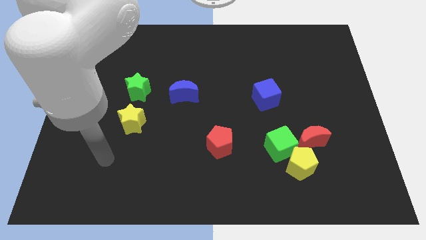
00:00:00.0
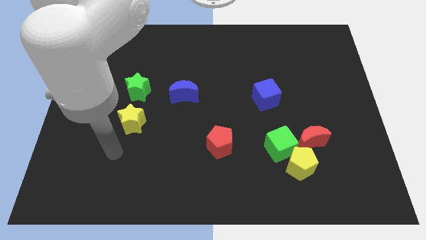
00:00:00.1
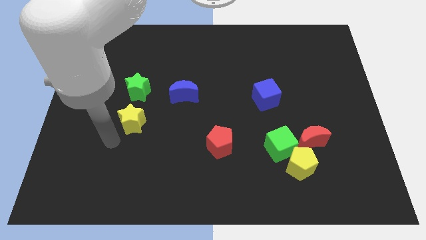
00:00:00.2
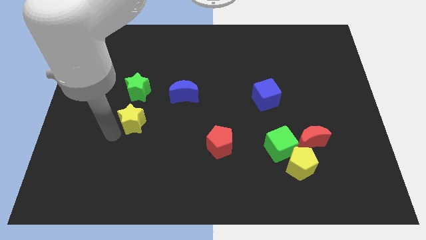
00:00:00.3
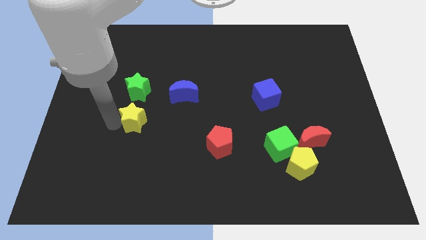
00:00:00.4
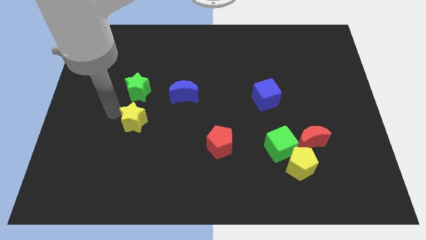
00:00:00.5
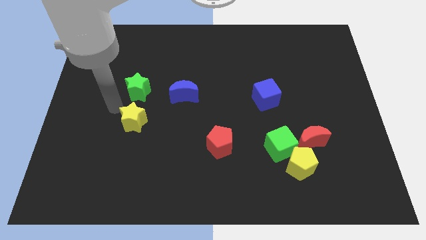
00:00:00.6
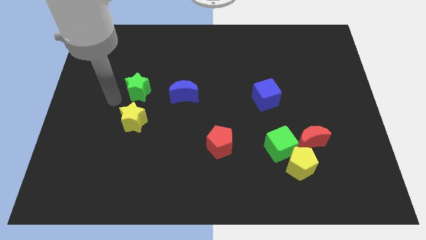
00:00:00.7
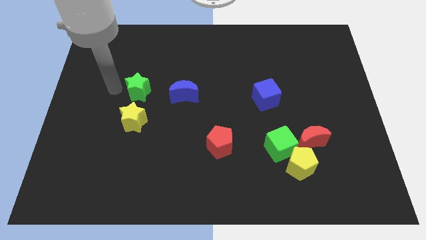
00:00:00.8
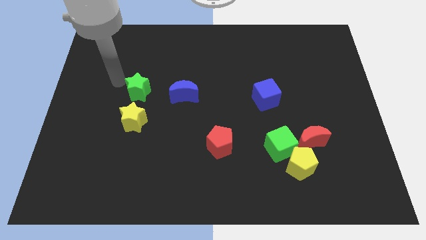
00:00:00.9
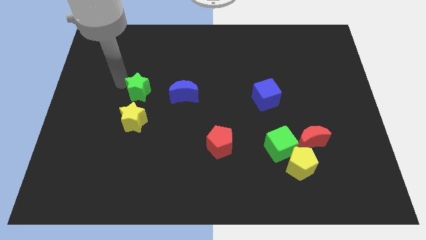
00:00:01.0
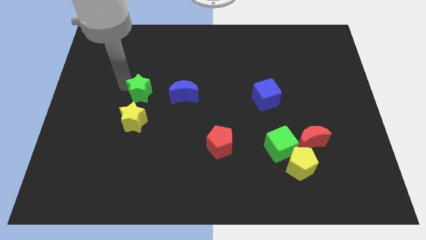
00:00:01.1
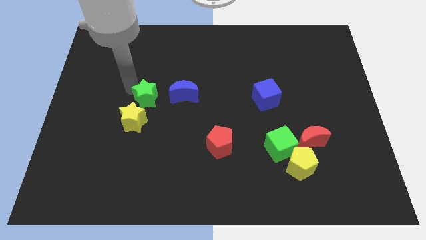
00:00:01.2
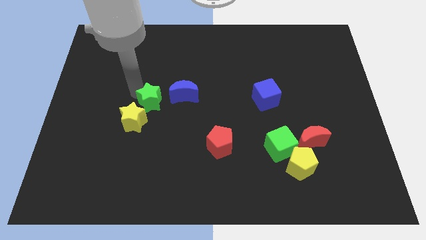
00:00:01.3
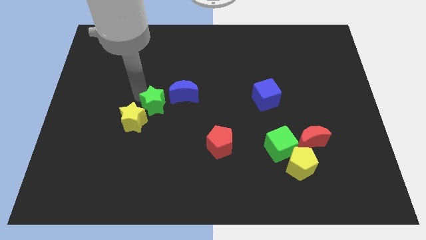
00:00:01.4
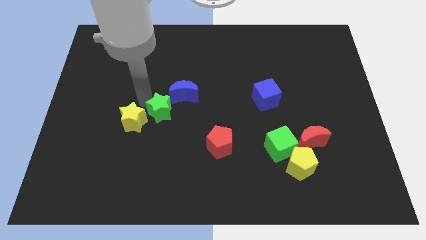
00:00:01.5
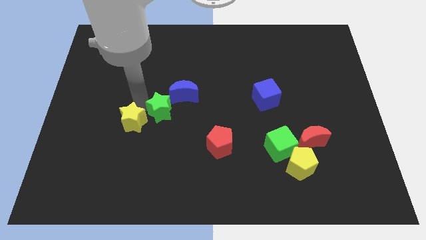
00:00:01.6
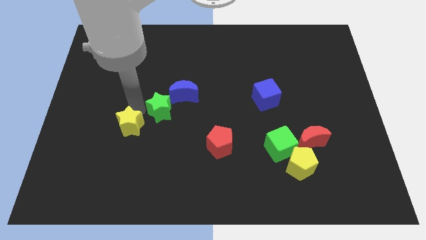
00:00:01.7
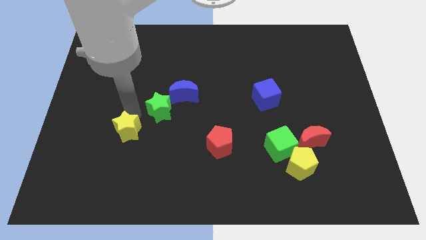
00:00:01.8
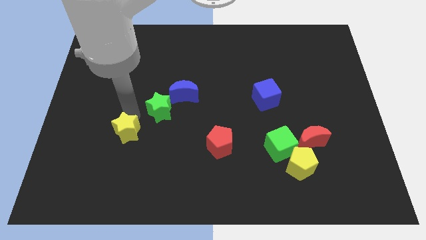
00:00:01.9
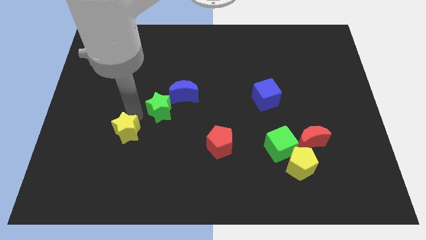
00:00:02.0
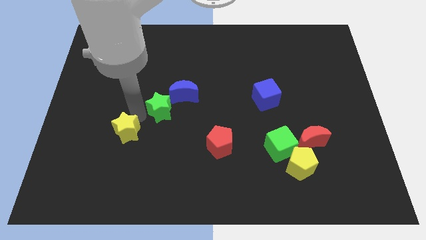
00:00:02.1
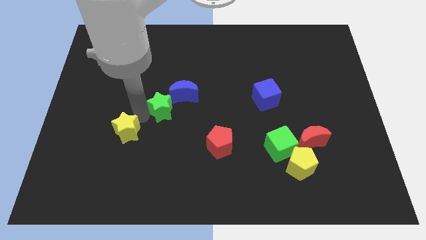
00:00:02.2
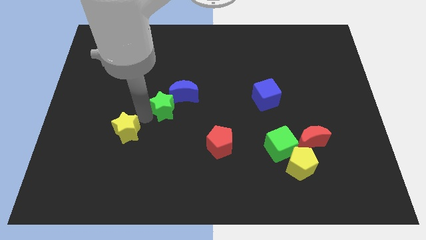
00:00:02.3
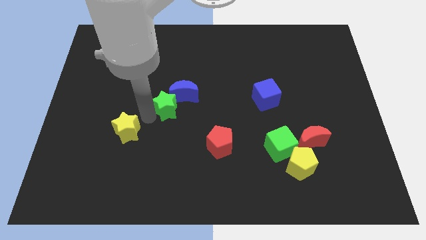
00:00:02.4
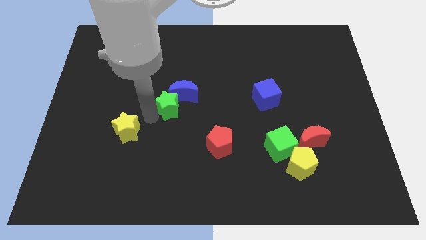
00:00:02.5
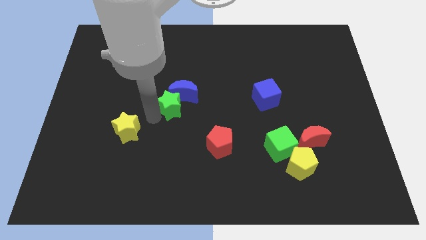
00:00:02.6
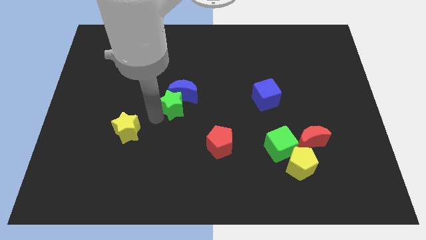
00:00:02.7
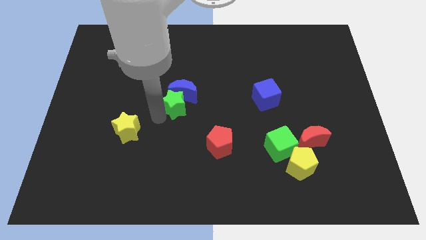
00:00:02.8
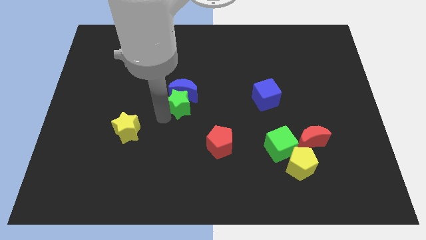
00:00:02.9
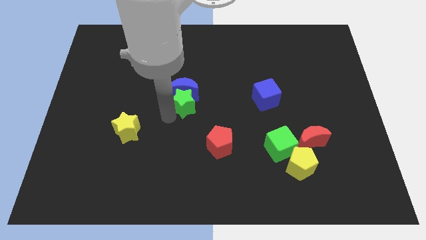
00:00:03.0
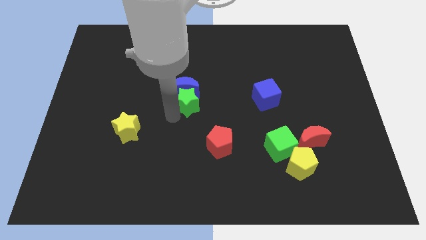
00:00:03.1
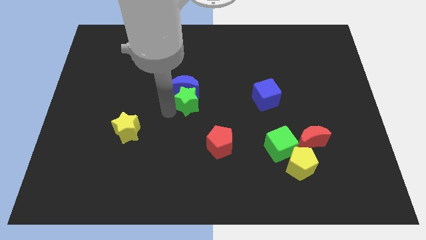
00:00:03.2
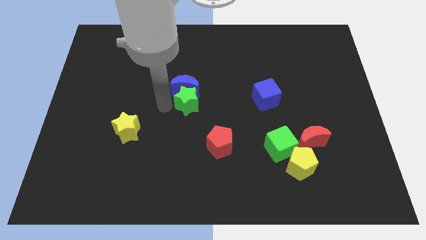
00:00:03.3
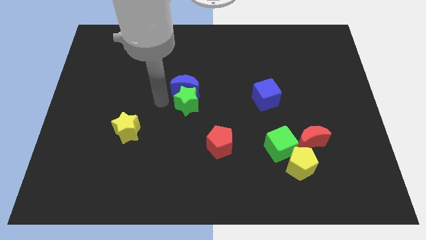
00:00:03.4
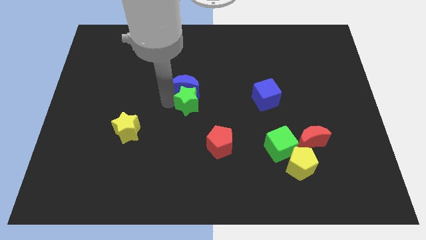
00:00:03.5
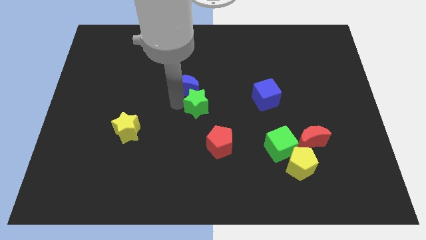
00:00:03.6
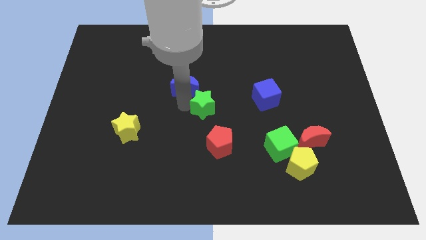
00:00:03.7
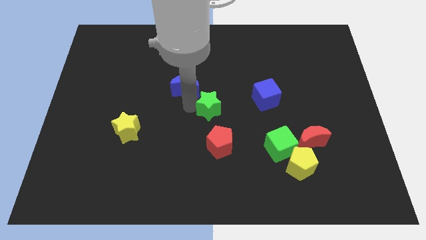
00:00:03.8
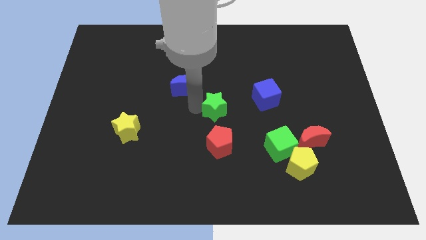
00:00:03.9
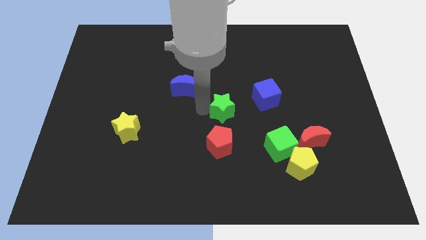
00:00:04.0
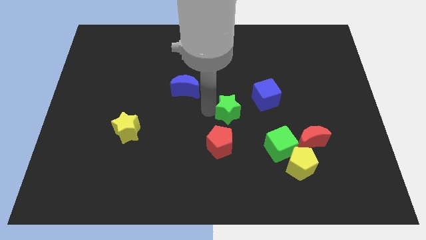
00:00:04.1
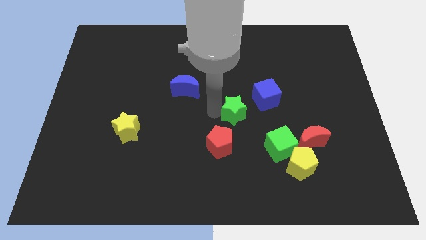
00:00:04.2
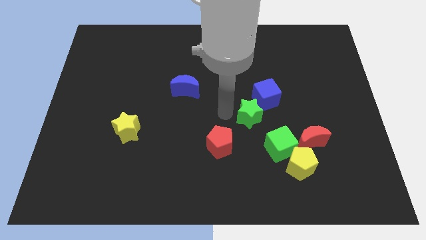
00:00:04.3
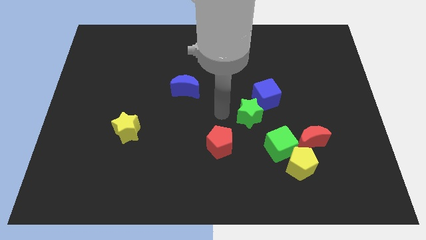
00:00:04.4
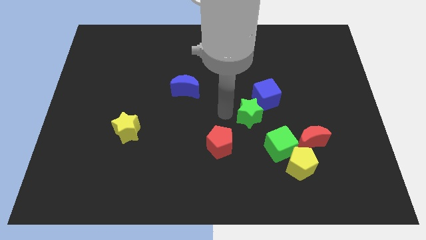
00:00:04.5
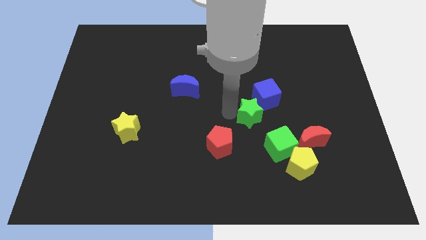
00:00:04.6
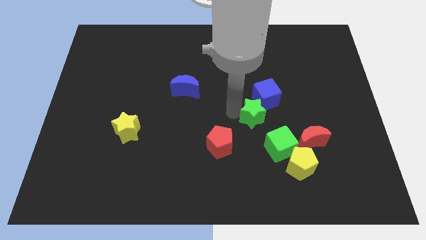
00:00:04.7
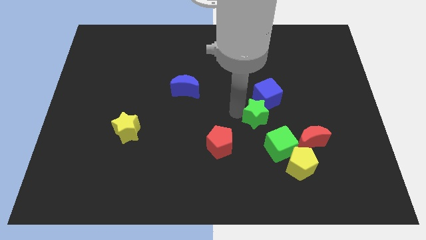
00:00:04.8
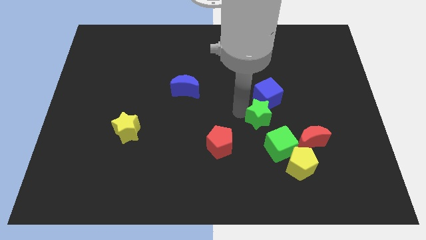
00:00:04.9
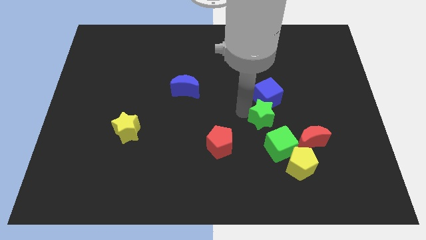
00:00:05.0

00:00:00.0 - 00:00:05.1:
move the green star to the top left of the red moon

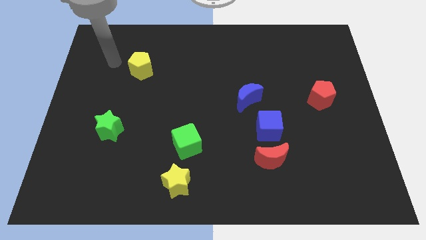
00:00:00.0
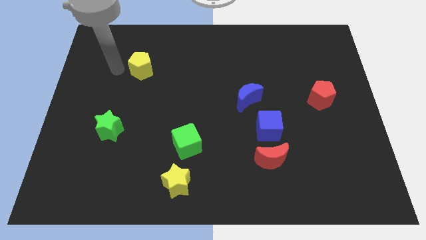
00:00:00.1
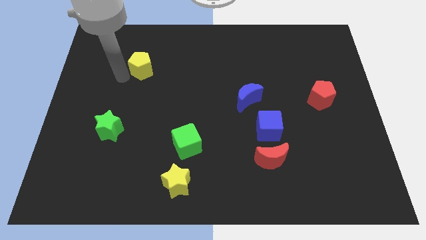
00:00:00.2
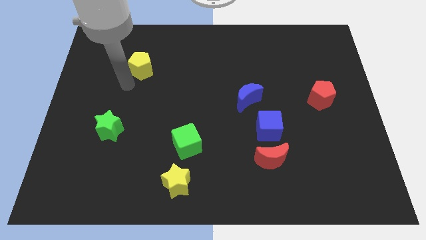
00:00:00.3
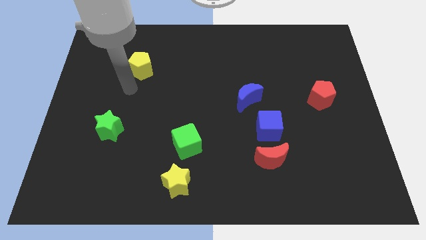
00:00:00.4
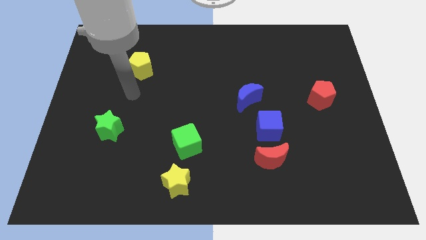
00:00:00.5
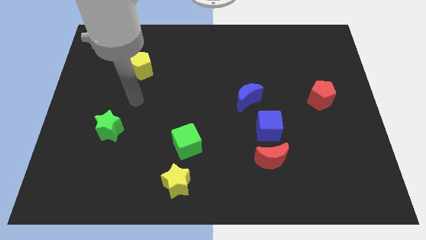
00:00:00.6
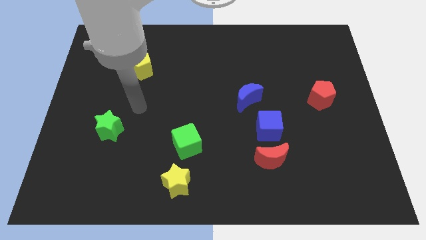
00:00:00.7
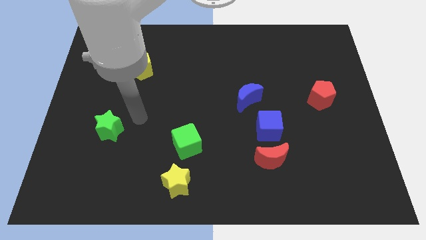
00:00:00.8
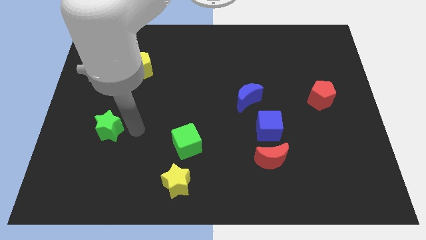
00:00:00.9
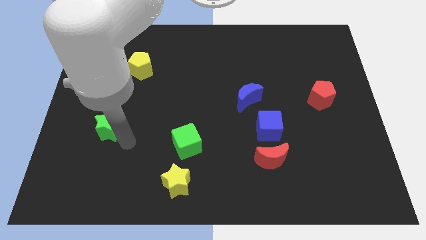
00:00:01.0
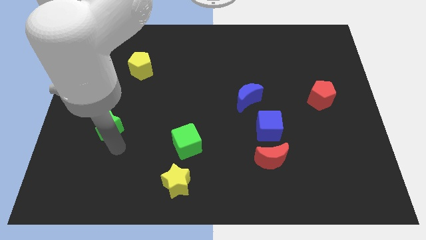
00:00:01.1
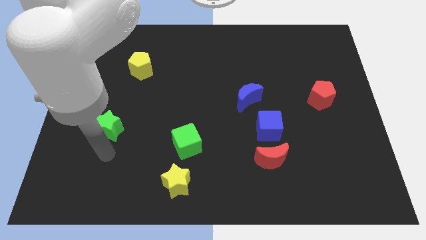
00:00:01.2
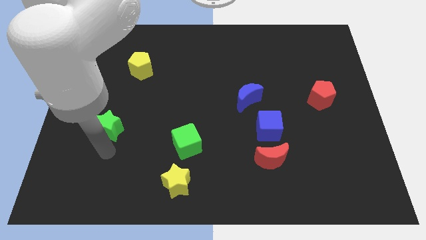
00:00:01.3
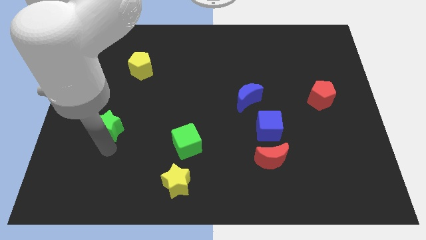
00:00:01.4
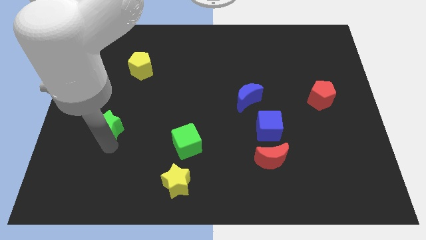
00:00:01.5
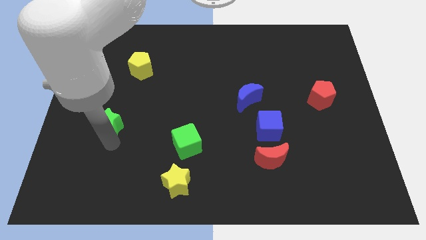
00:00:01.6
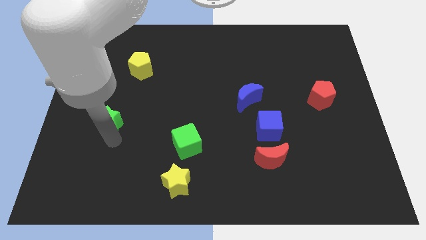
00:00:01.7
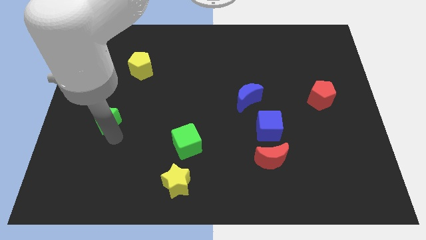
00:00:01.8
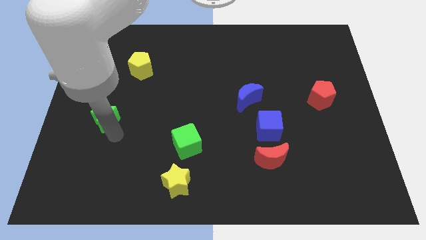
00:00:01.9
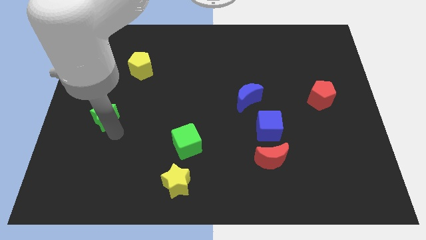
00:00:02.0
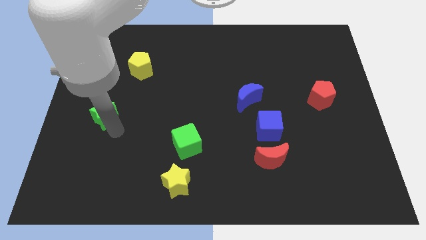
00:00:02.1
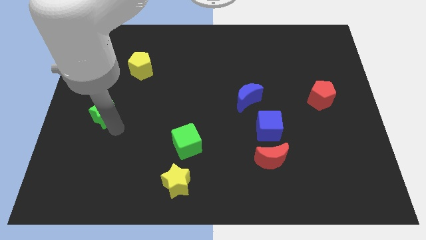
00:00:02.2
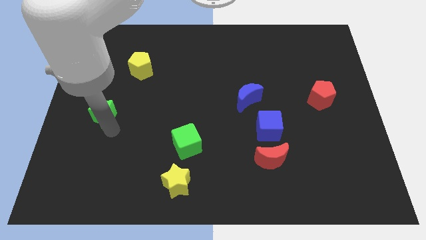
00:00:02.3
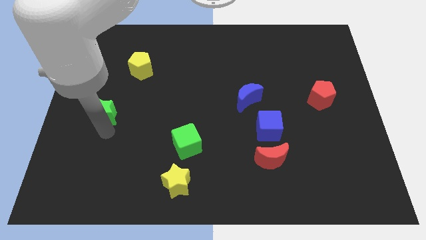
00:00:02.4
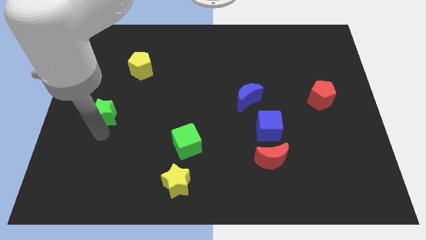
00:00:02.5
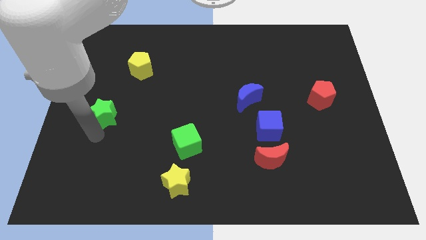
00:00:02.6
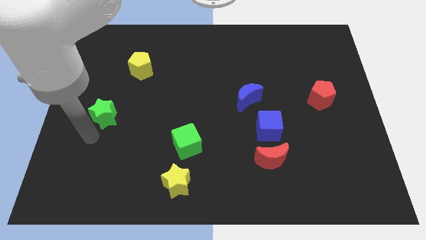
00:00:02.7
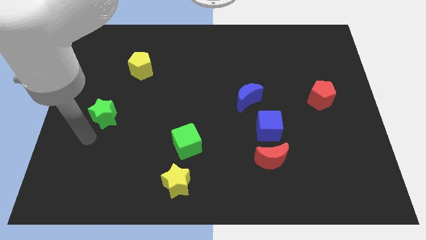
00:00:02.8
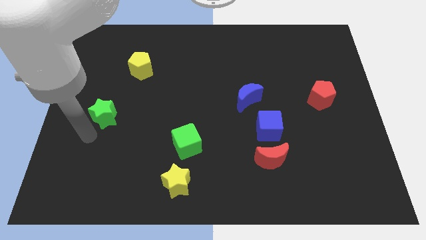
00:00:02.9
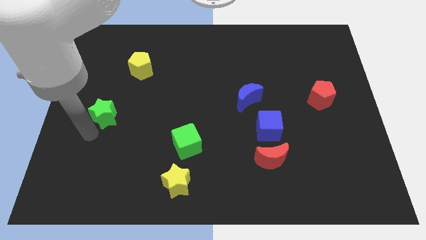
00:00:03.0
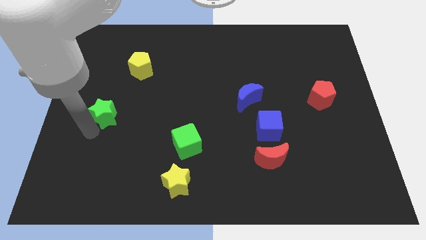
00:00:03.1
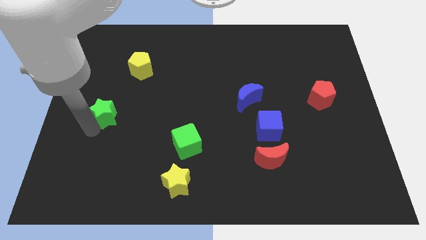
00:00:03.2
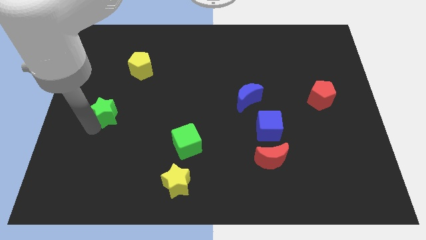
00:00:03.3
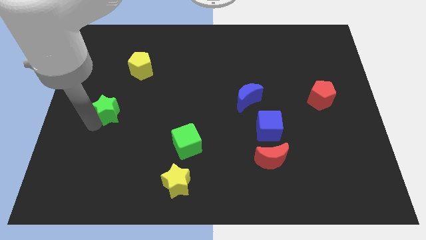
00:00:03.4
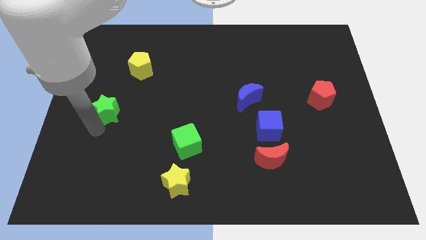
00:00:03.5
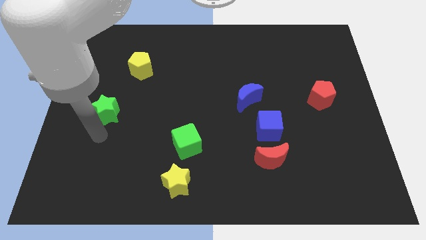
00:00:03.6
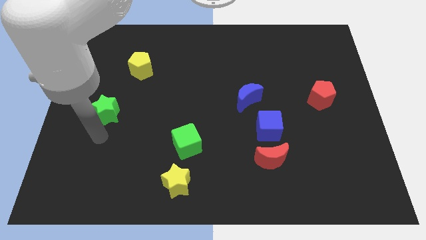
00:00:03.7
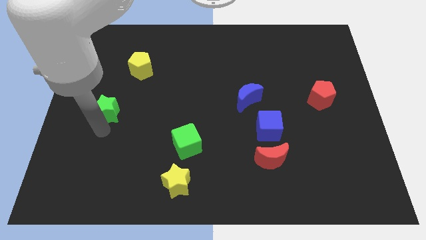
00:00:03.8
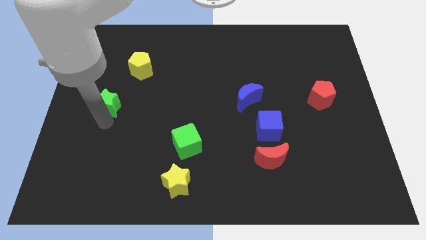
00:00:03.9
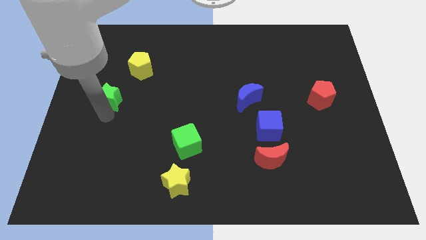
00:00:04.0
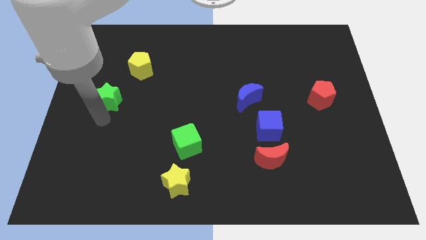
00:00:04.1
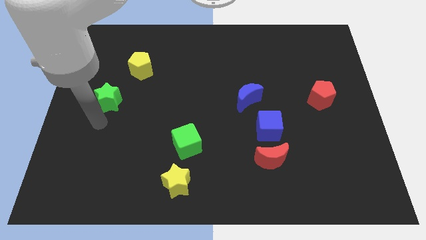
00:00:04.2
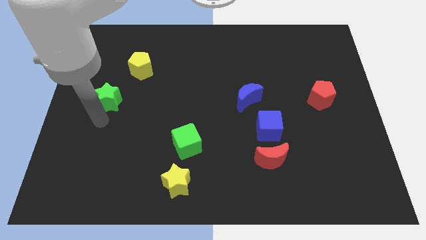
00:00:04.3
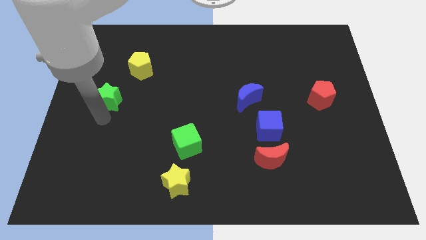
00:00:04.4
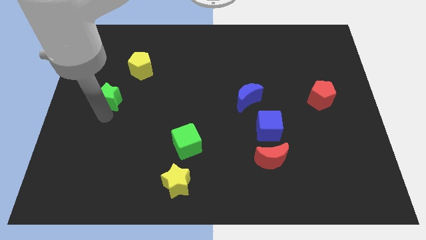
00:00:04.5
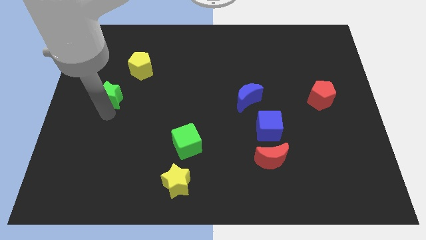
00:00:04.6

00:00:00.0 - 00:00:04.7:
put the green star diagonally down and to the left of the yellow pentagon
